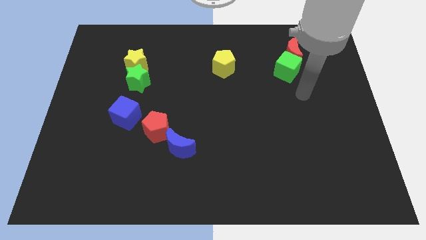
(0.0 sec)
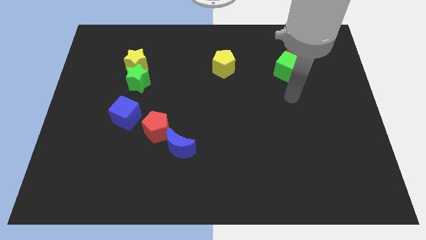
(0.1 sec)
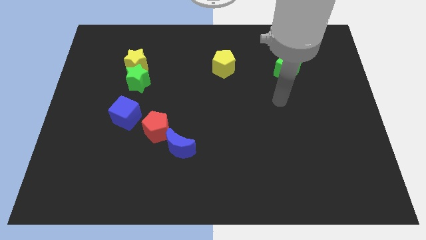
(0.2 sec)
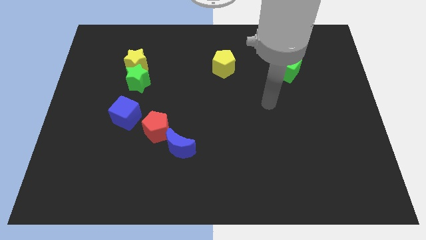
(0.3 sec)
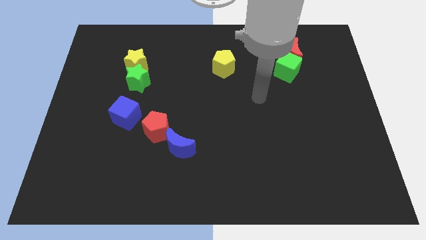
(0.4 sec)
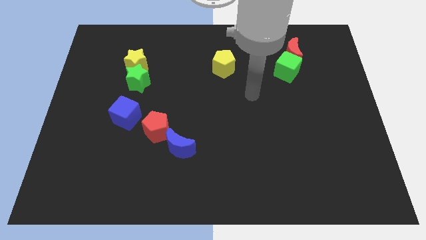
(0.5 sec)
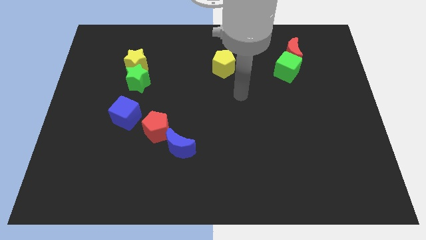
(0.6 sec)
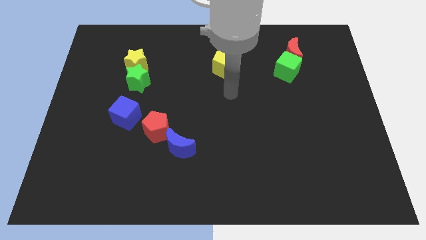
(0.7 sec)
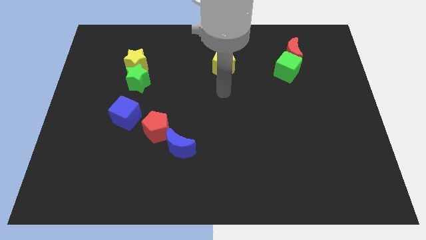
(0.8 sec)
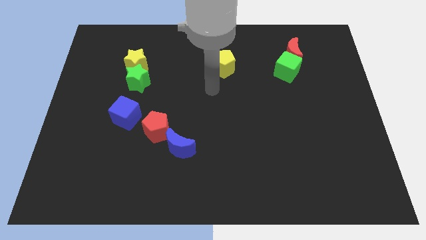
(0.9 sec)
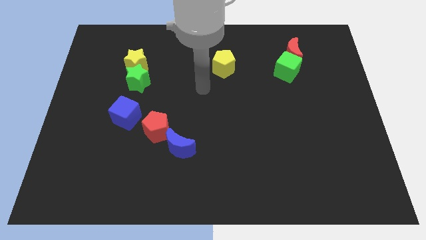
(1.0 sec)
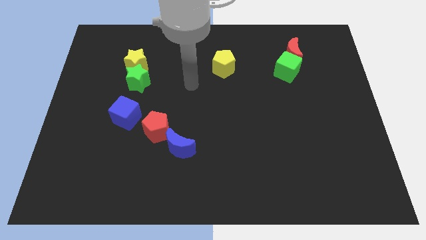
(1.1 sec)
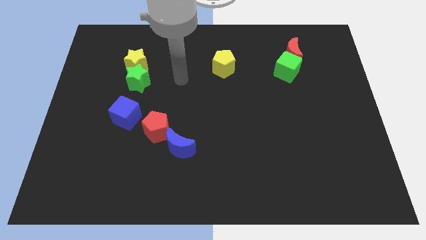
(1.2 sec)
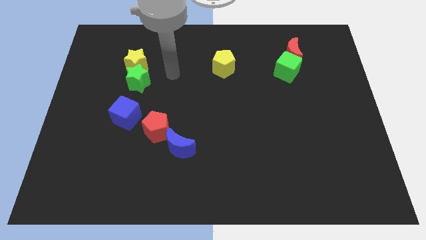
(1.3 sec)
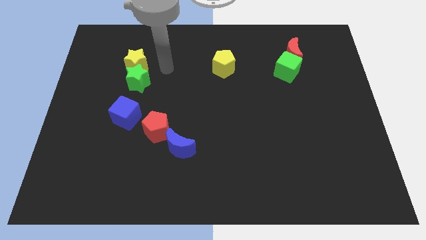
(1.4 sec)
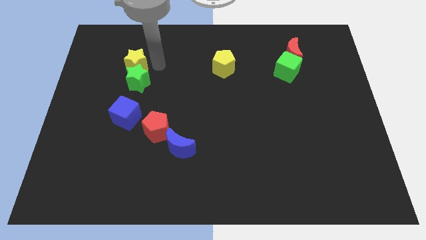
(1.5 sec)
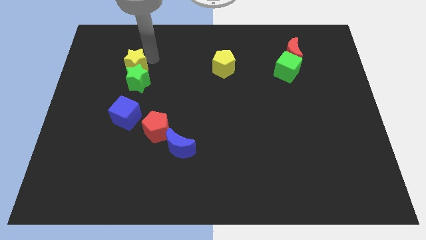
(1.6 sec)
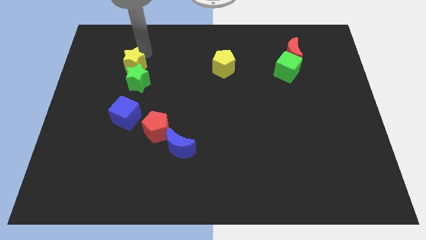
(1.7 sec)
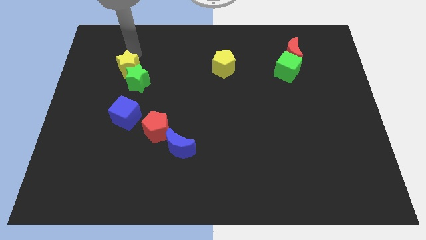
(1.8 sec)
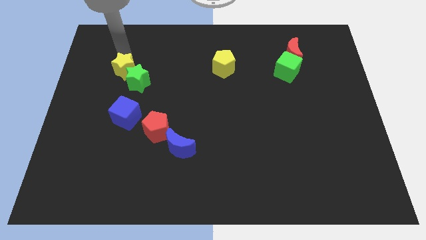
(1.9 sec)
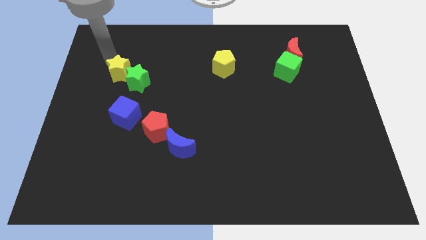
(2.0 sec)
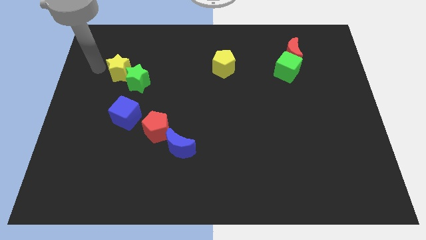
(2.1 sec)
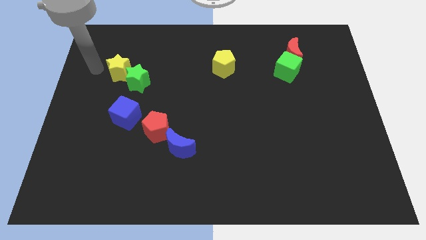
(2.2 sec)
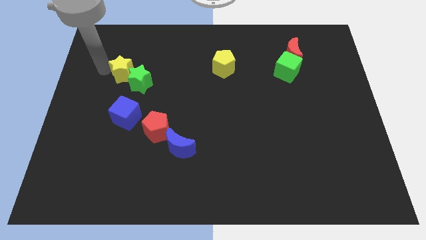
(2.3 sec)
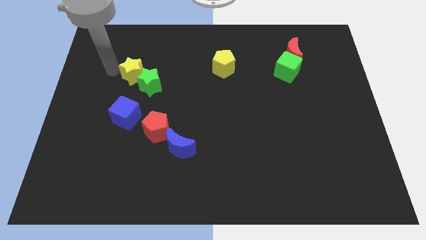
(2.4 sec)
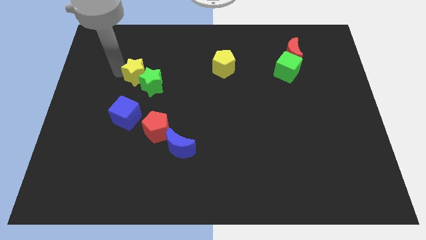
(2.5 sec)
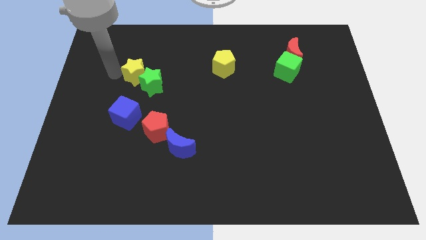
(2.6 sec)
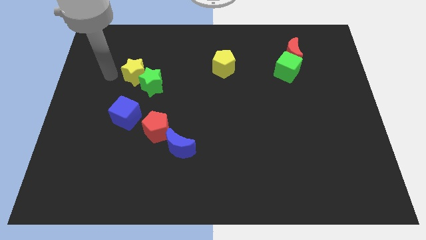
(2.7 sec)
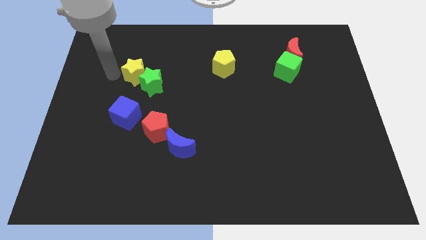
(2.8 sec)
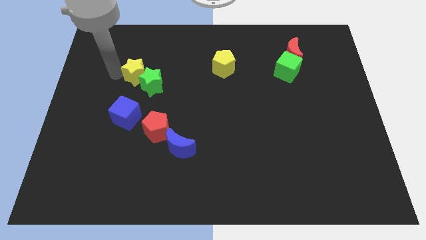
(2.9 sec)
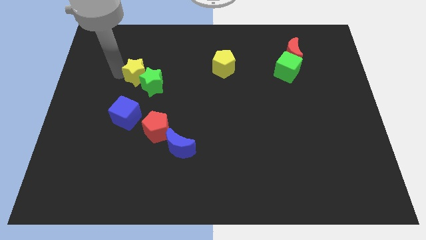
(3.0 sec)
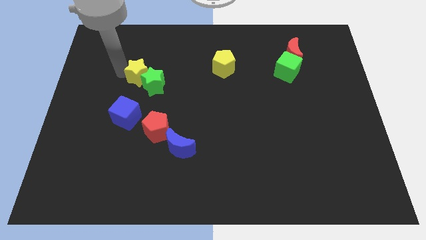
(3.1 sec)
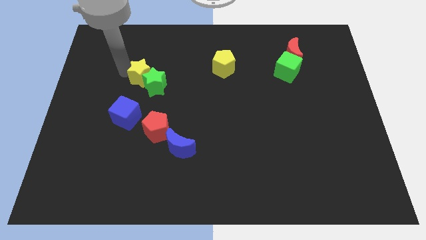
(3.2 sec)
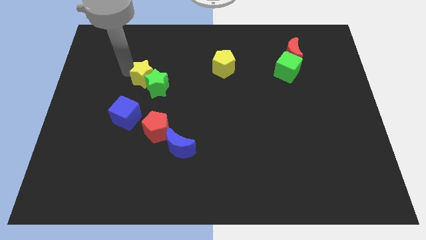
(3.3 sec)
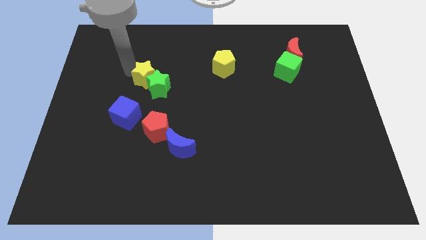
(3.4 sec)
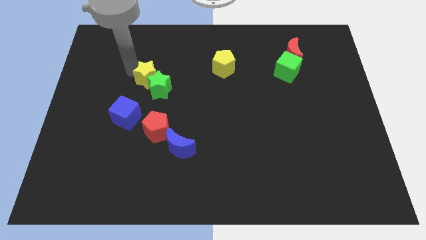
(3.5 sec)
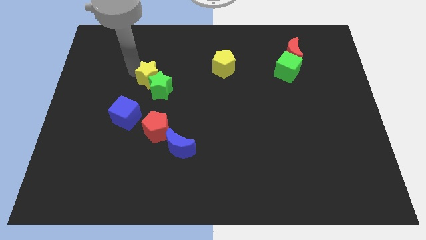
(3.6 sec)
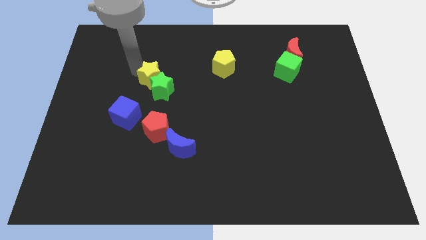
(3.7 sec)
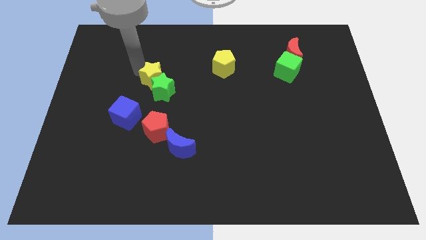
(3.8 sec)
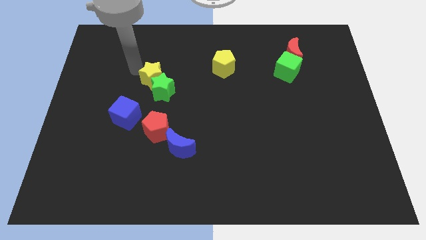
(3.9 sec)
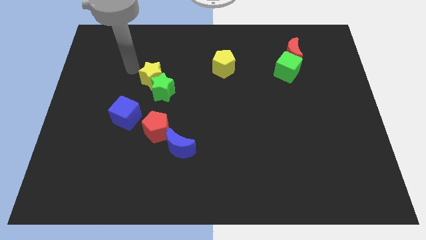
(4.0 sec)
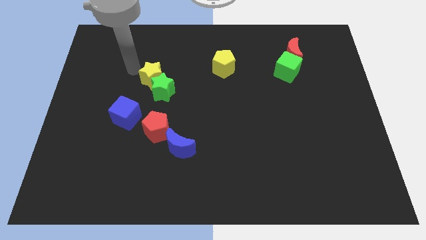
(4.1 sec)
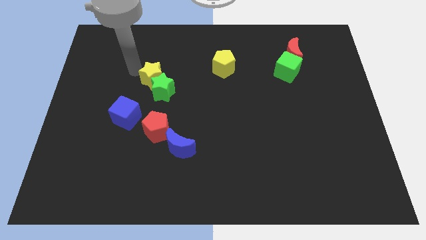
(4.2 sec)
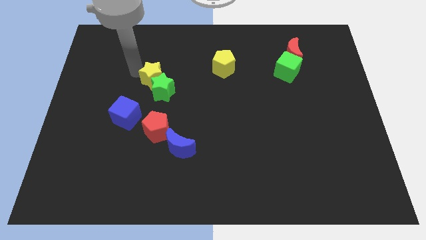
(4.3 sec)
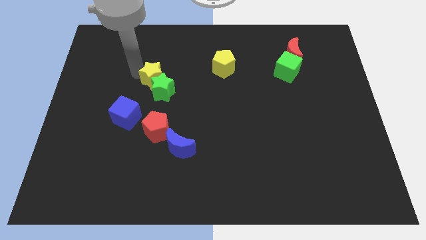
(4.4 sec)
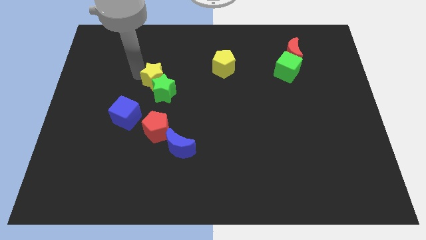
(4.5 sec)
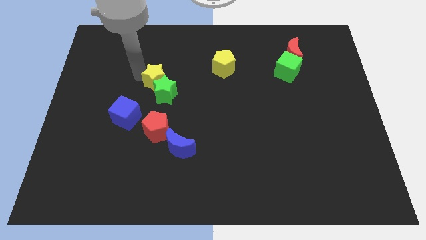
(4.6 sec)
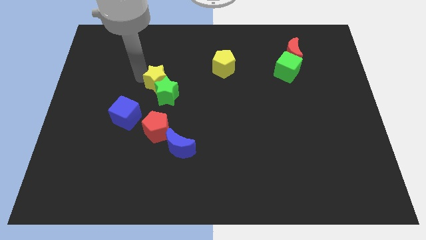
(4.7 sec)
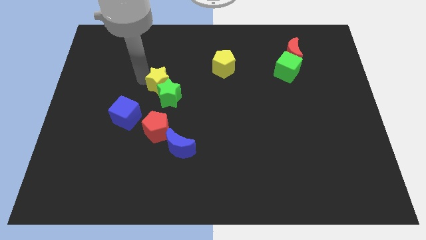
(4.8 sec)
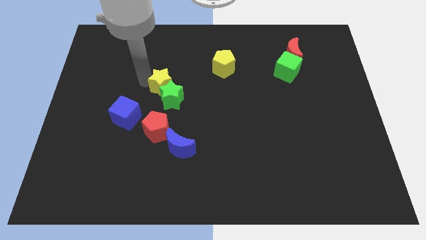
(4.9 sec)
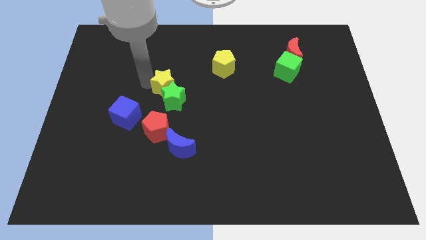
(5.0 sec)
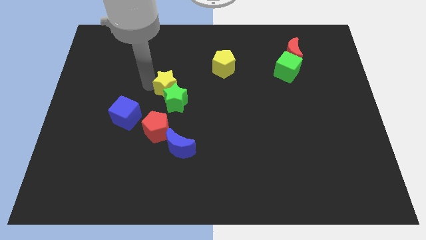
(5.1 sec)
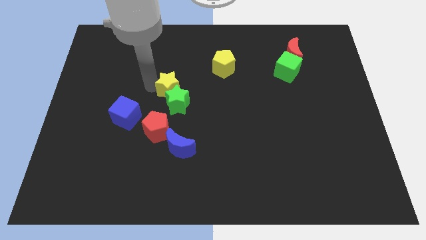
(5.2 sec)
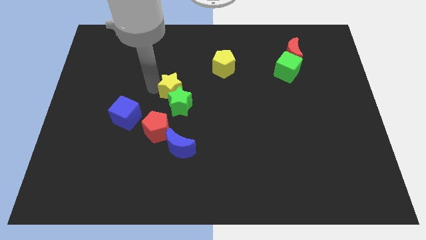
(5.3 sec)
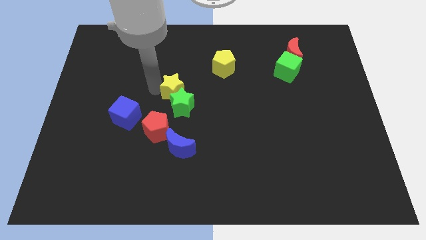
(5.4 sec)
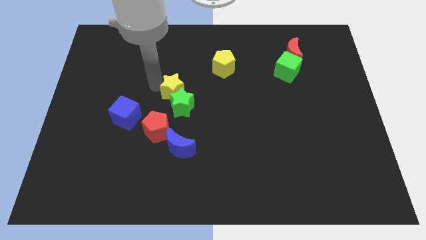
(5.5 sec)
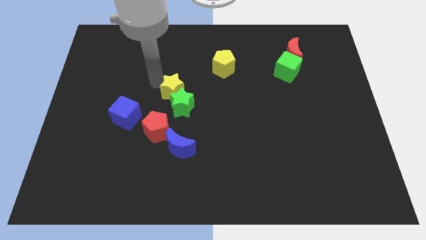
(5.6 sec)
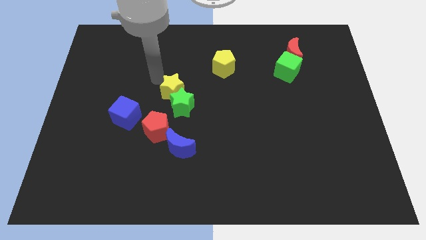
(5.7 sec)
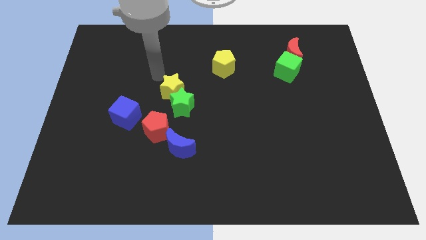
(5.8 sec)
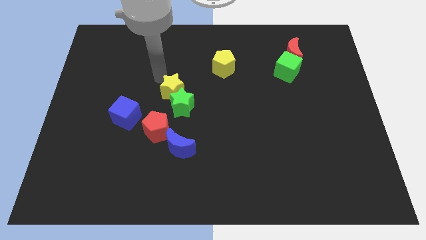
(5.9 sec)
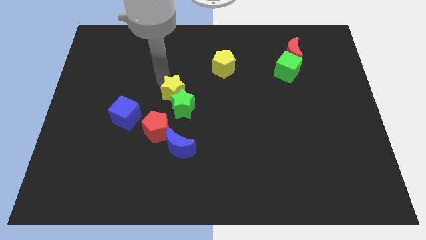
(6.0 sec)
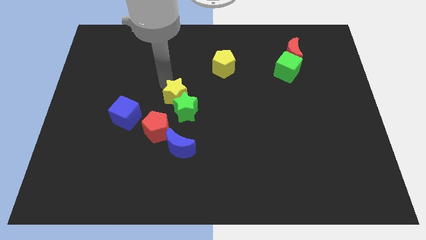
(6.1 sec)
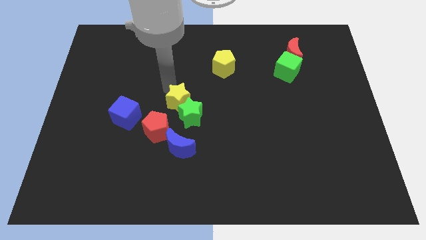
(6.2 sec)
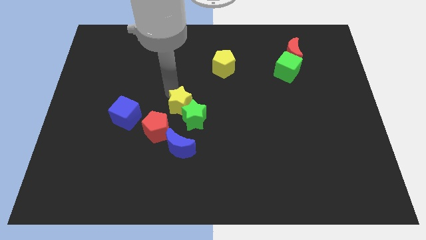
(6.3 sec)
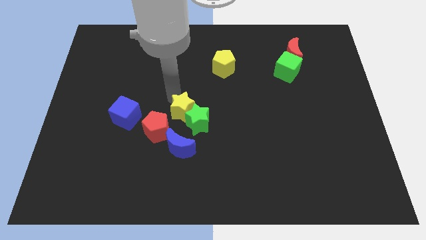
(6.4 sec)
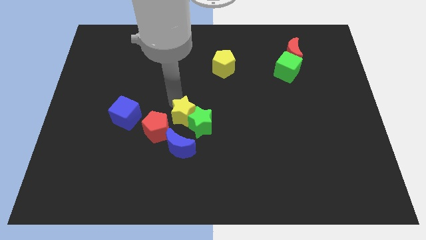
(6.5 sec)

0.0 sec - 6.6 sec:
slide the yellow star down and then to the right

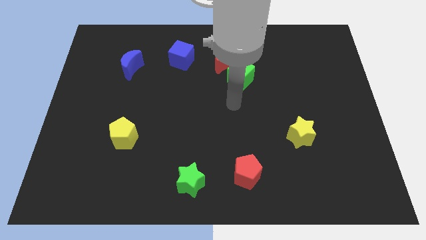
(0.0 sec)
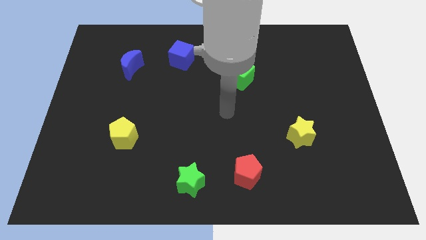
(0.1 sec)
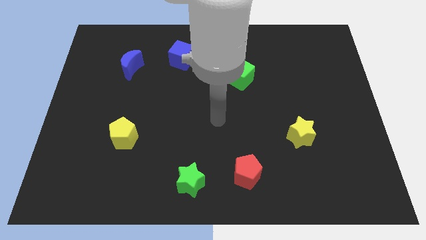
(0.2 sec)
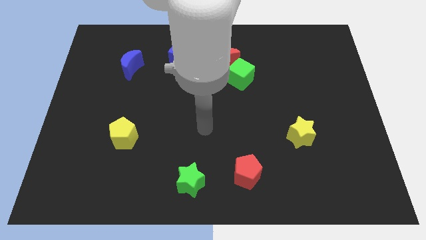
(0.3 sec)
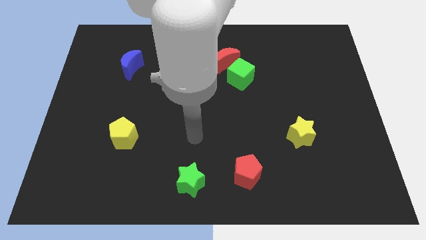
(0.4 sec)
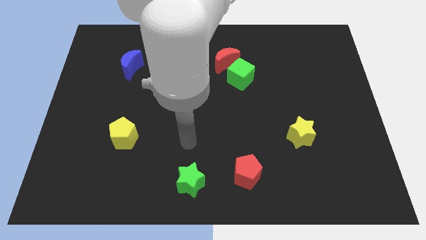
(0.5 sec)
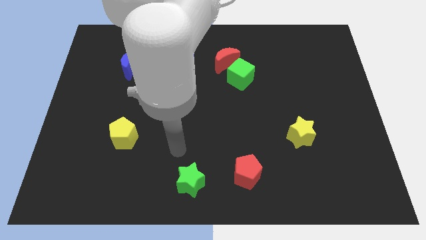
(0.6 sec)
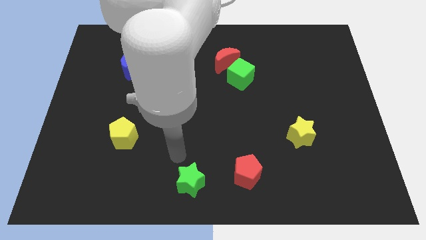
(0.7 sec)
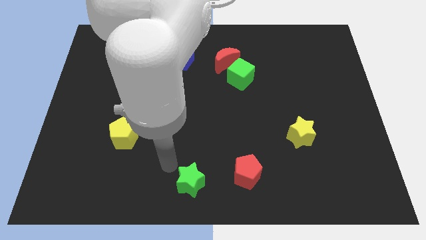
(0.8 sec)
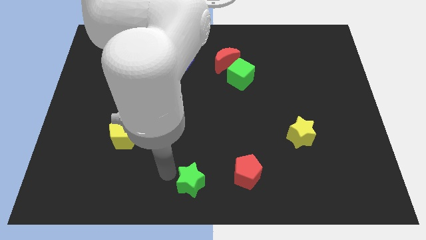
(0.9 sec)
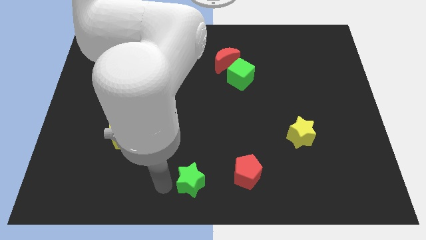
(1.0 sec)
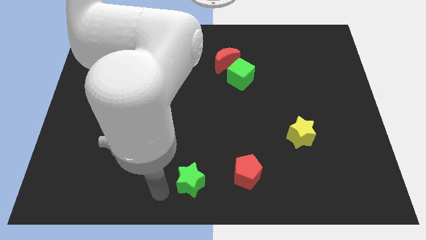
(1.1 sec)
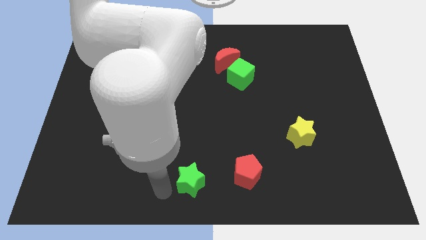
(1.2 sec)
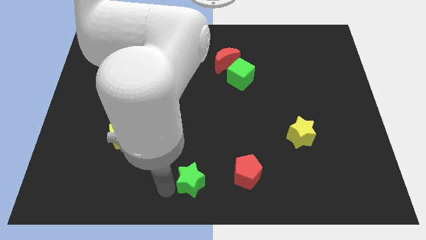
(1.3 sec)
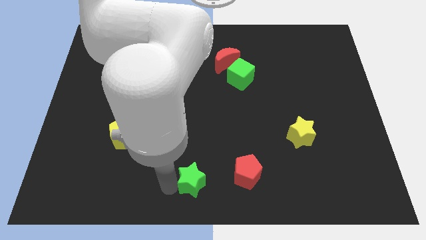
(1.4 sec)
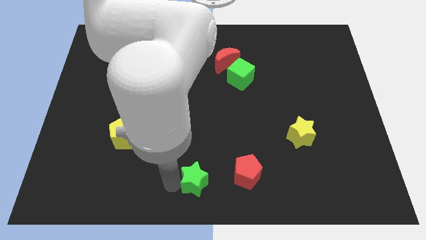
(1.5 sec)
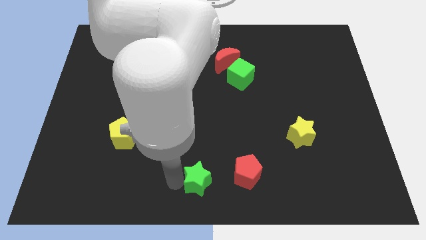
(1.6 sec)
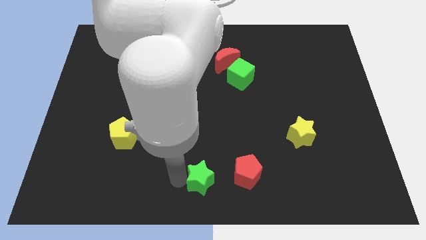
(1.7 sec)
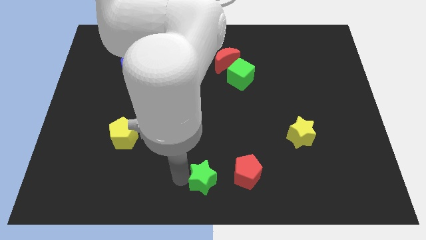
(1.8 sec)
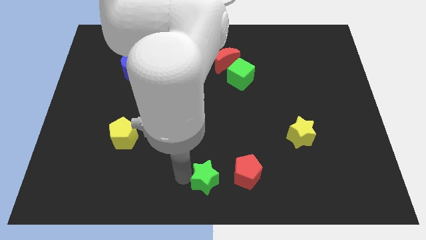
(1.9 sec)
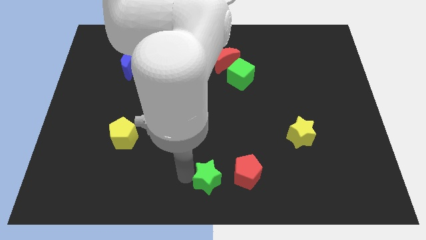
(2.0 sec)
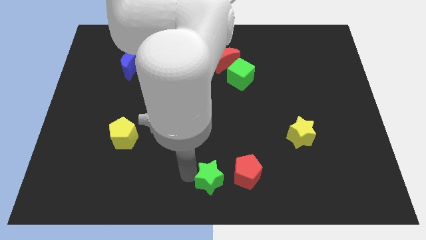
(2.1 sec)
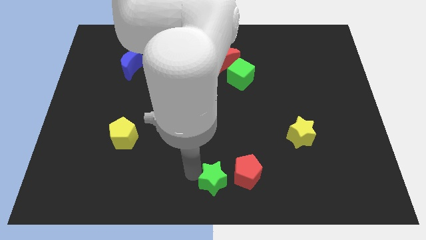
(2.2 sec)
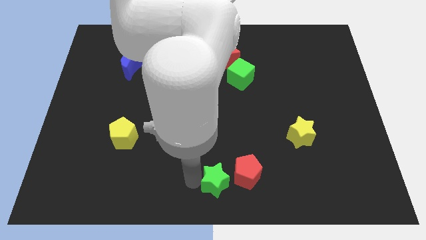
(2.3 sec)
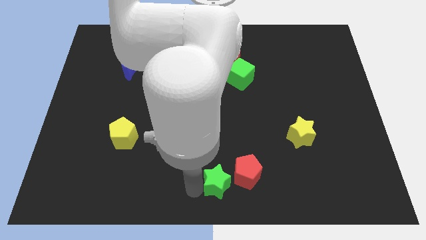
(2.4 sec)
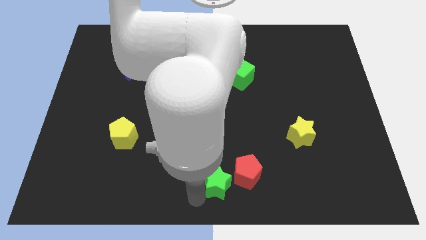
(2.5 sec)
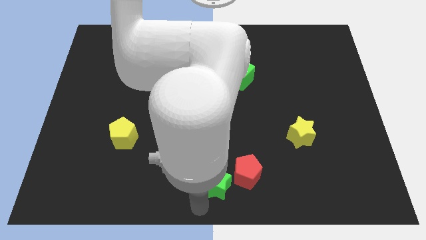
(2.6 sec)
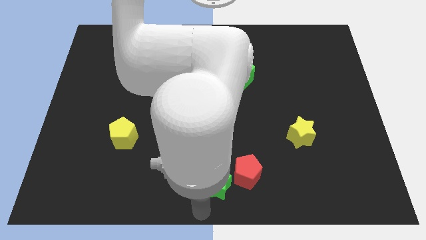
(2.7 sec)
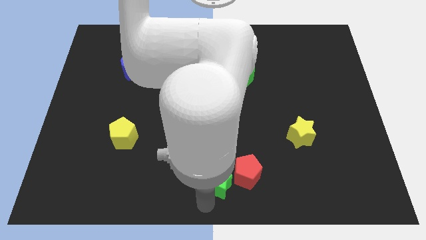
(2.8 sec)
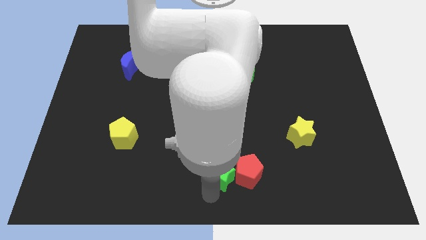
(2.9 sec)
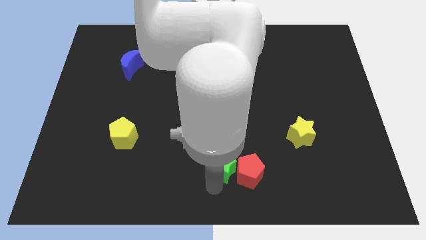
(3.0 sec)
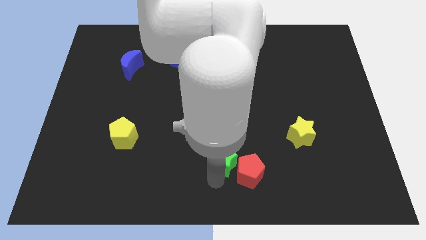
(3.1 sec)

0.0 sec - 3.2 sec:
move the green star slightly up and right
